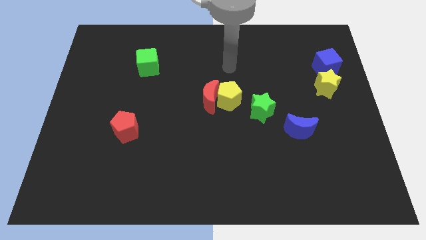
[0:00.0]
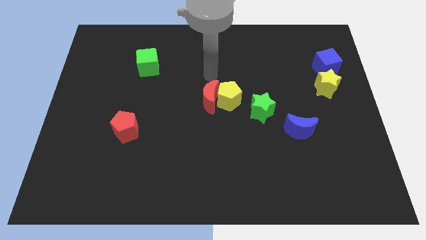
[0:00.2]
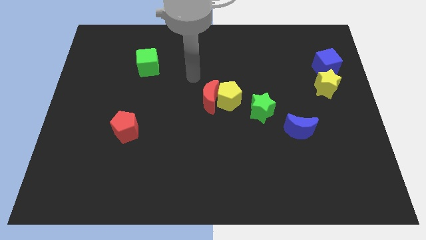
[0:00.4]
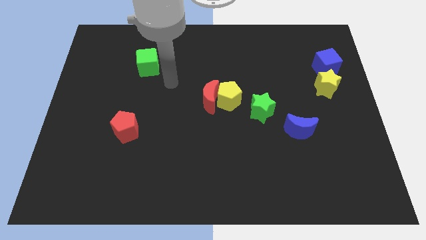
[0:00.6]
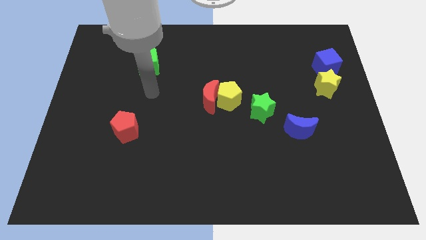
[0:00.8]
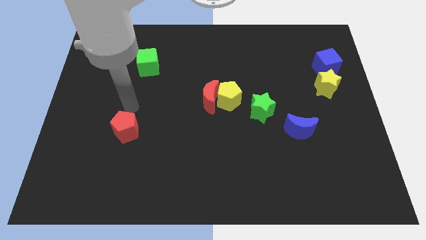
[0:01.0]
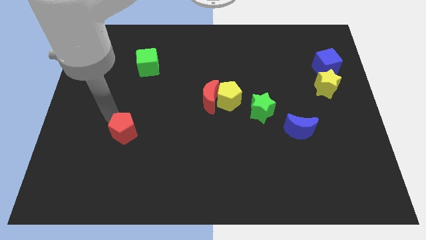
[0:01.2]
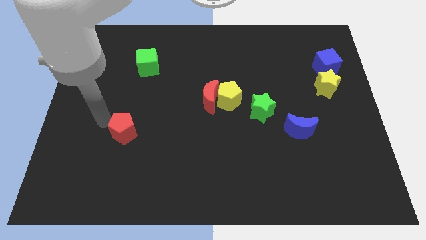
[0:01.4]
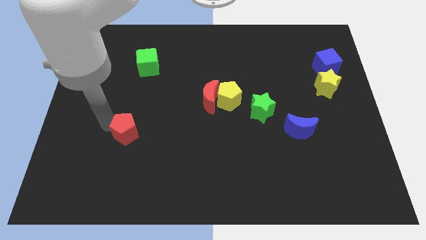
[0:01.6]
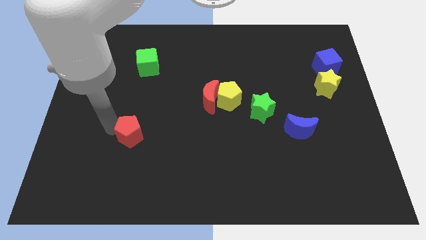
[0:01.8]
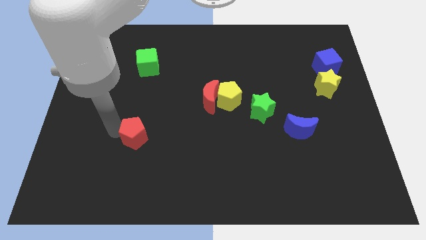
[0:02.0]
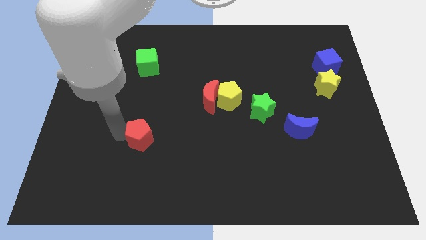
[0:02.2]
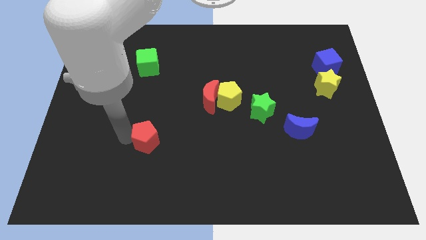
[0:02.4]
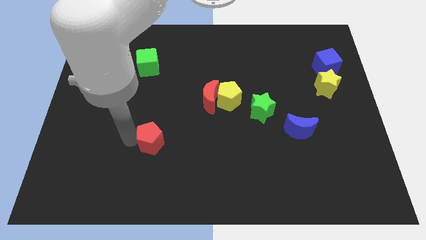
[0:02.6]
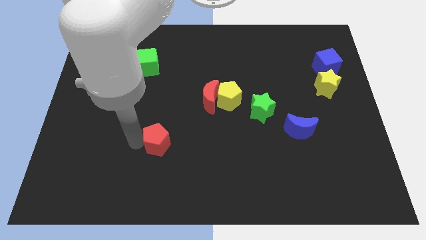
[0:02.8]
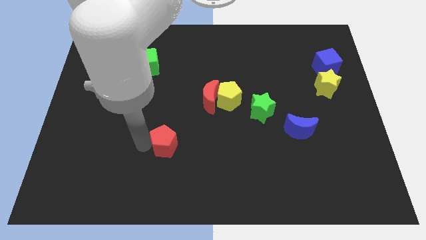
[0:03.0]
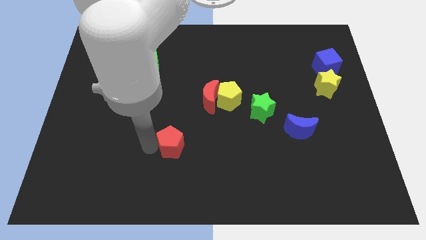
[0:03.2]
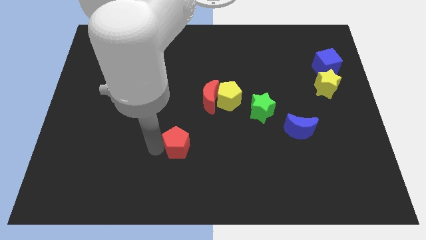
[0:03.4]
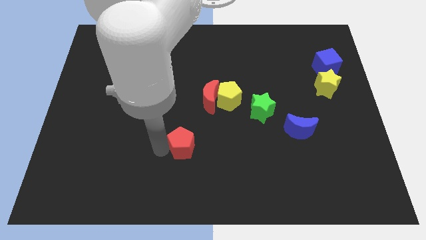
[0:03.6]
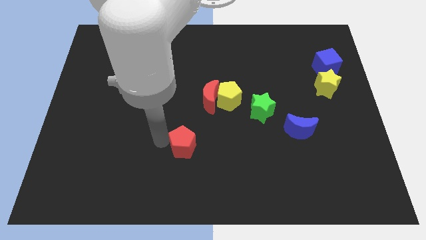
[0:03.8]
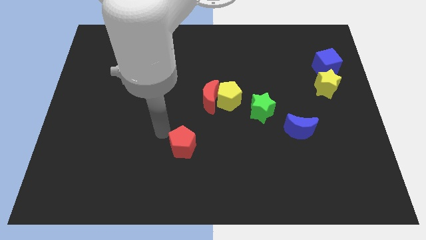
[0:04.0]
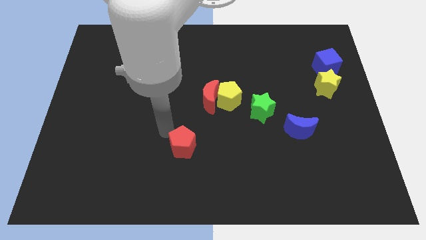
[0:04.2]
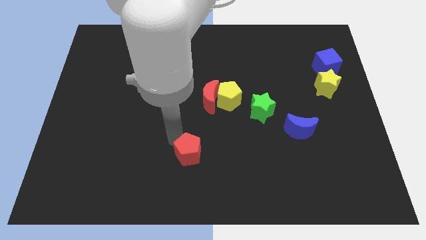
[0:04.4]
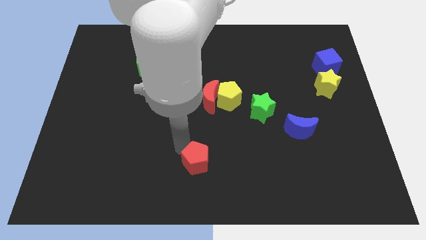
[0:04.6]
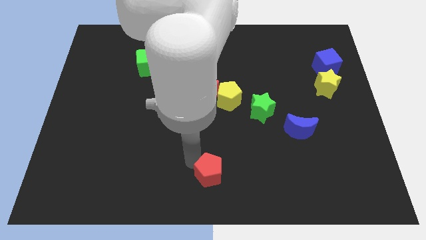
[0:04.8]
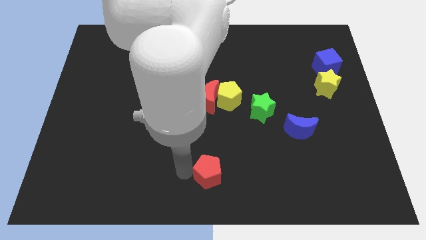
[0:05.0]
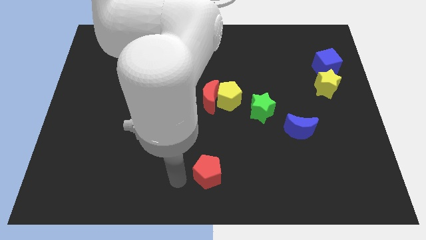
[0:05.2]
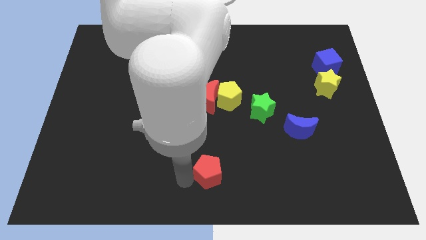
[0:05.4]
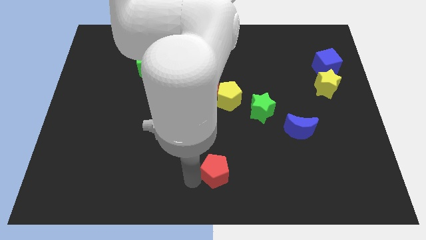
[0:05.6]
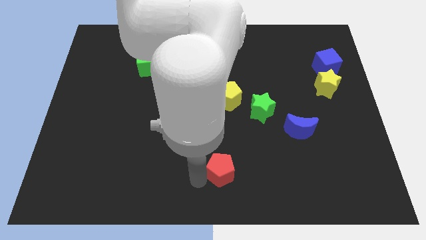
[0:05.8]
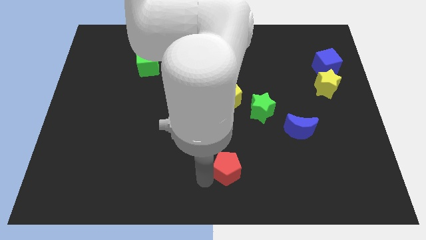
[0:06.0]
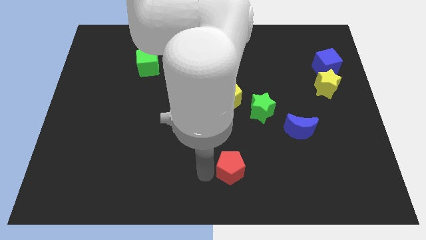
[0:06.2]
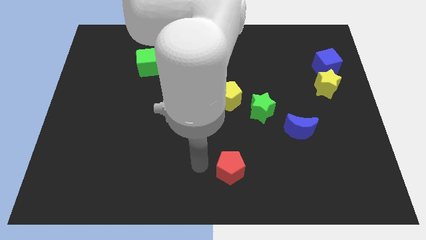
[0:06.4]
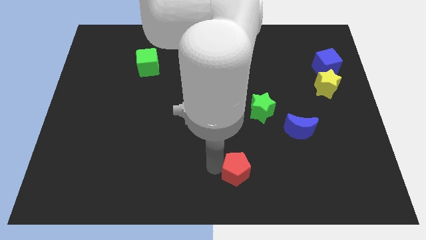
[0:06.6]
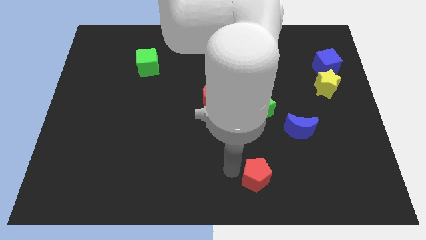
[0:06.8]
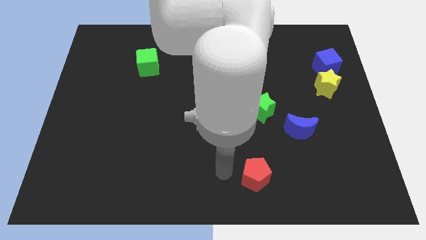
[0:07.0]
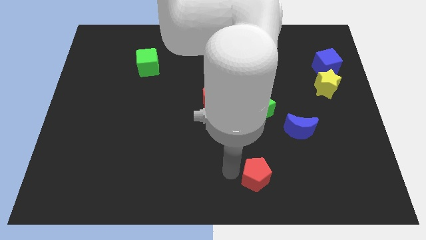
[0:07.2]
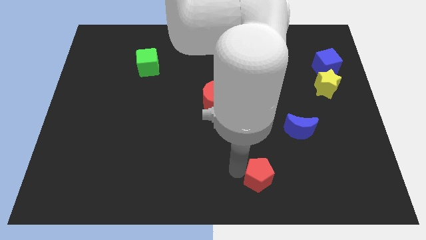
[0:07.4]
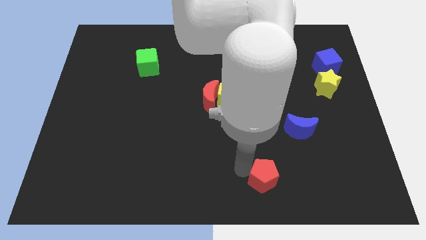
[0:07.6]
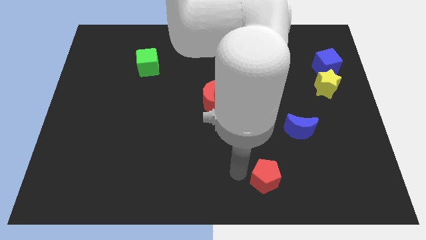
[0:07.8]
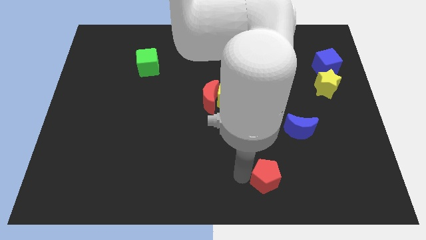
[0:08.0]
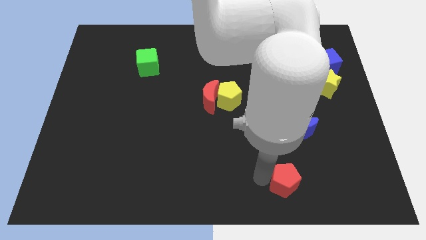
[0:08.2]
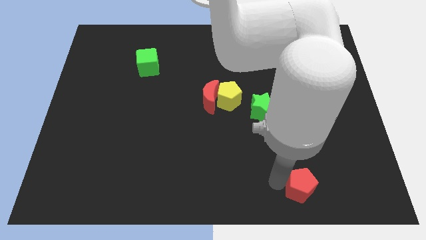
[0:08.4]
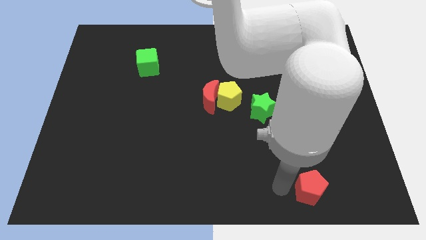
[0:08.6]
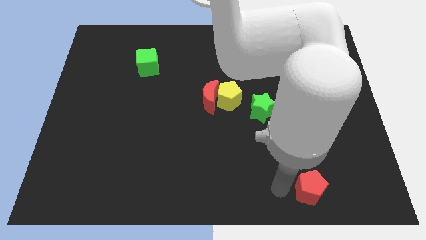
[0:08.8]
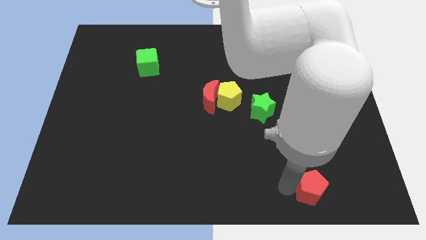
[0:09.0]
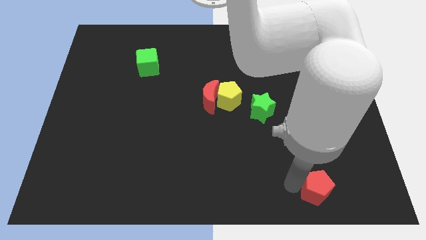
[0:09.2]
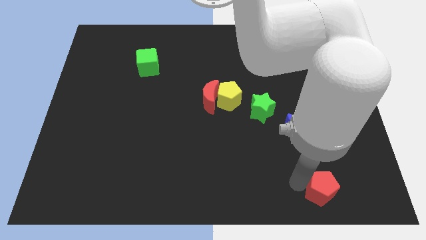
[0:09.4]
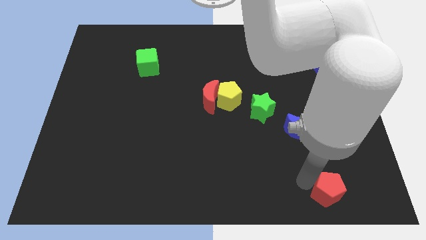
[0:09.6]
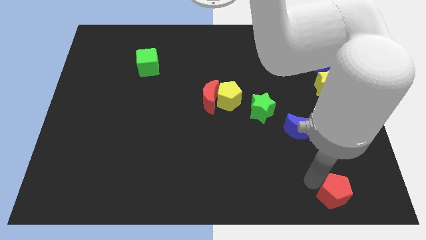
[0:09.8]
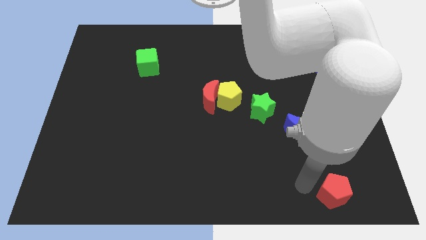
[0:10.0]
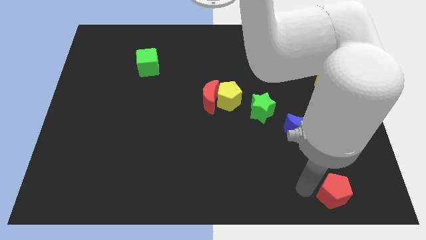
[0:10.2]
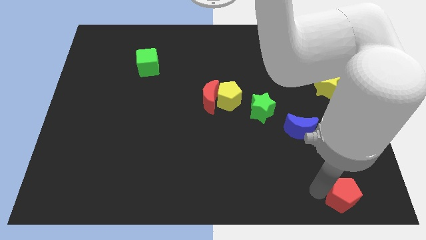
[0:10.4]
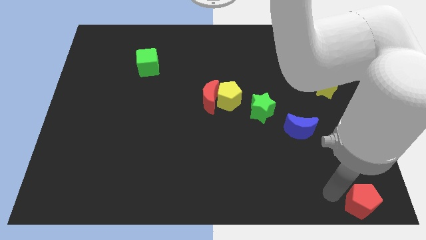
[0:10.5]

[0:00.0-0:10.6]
push the red pentagon to the lower right corner

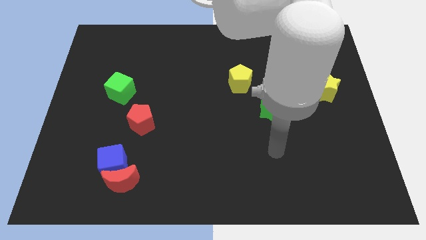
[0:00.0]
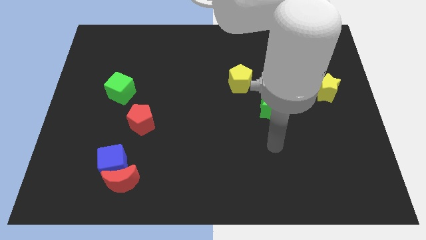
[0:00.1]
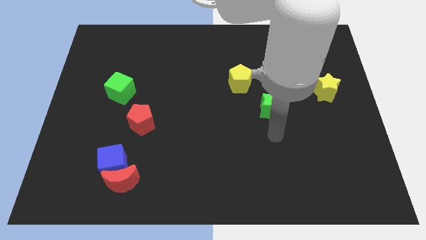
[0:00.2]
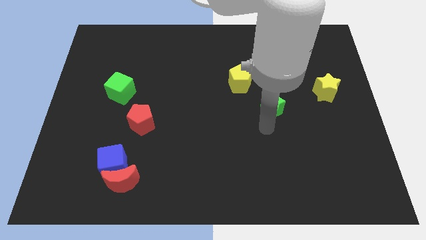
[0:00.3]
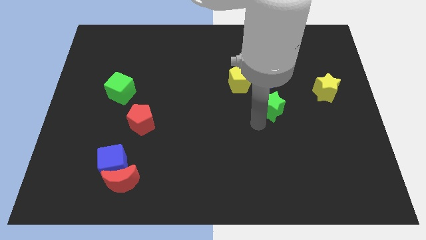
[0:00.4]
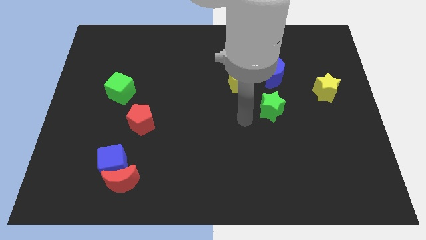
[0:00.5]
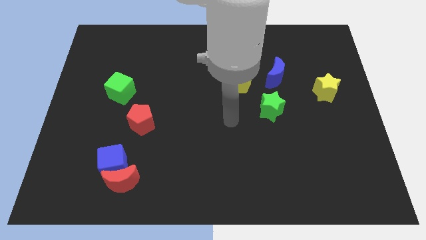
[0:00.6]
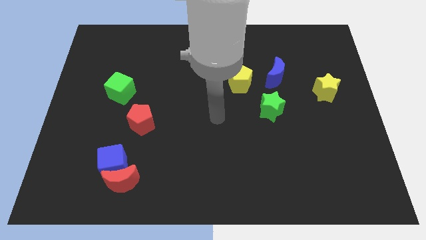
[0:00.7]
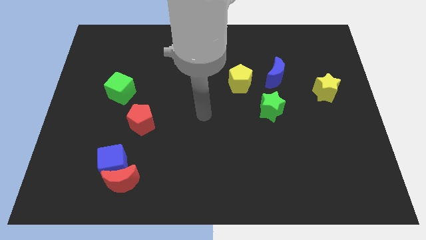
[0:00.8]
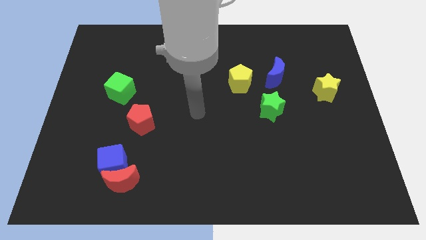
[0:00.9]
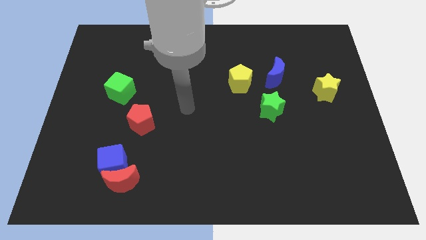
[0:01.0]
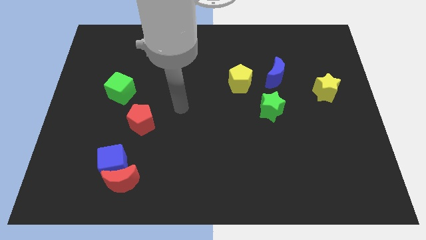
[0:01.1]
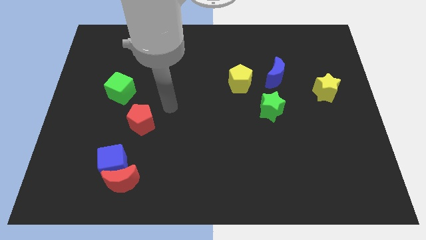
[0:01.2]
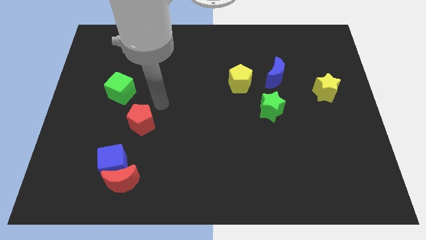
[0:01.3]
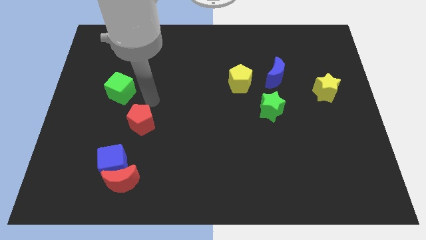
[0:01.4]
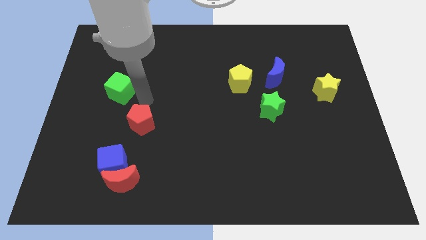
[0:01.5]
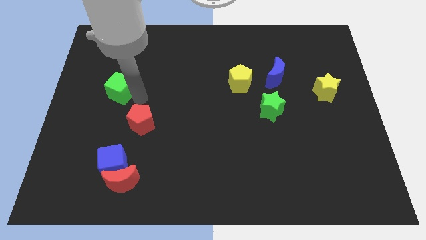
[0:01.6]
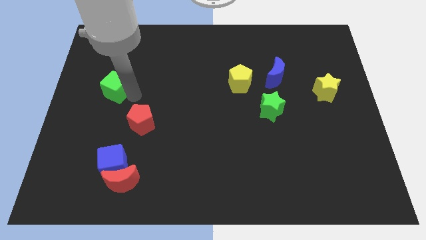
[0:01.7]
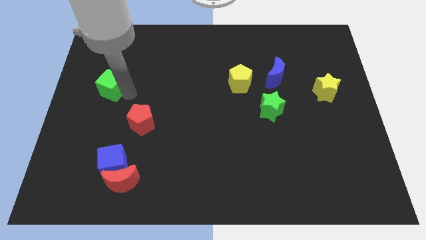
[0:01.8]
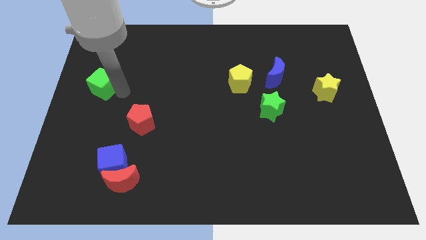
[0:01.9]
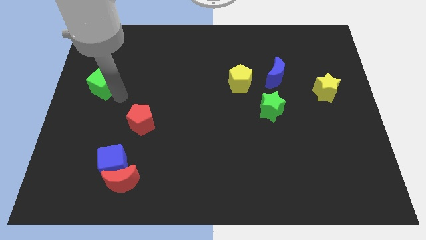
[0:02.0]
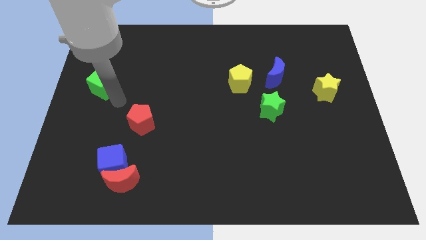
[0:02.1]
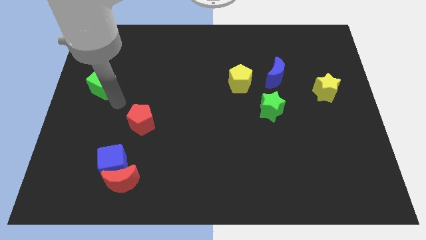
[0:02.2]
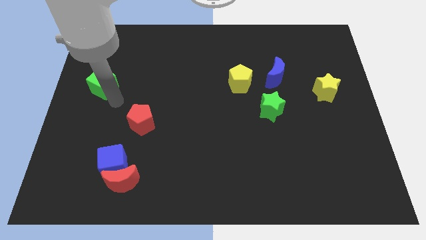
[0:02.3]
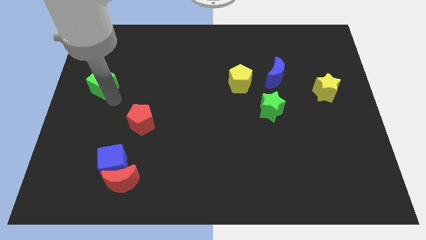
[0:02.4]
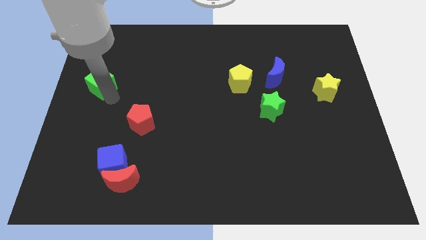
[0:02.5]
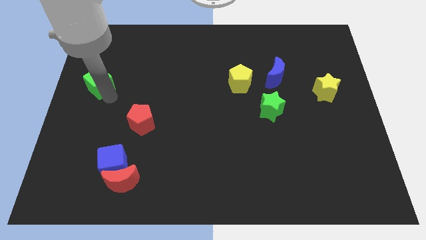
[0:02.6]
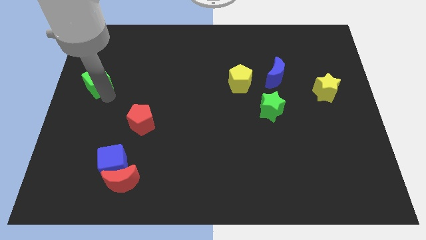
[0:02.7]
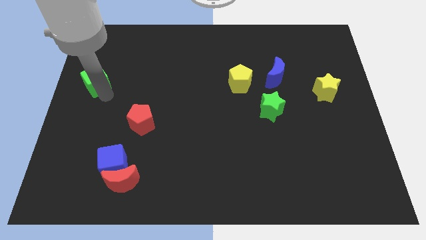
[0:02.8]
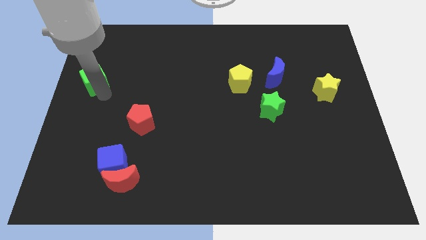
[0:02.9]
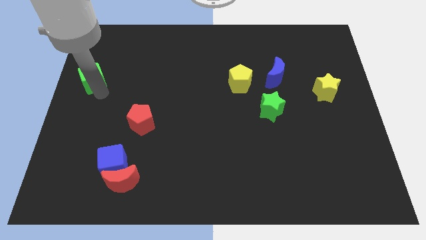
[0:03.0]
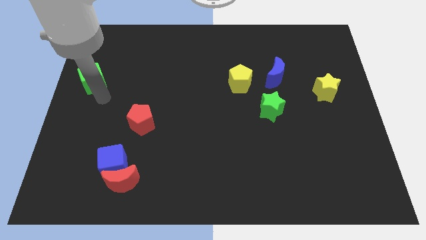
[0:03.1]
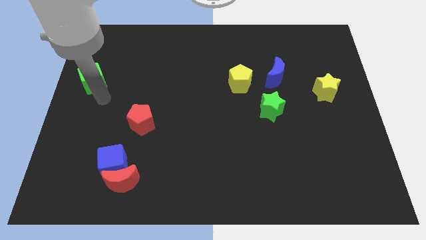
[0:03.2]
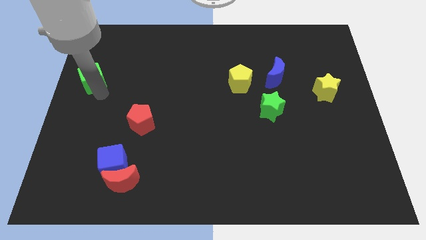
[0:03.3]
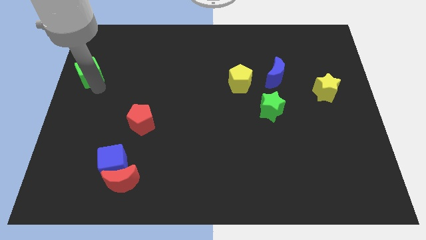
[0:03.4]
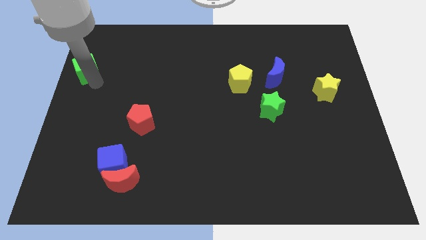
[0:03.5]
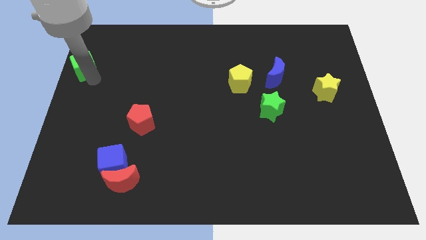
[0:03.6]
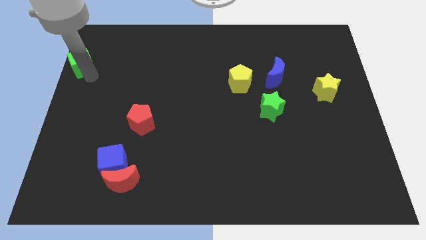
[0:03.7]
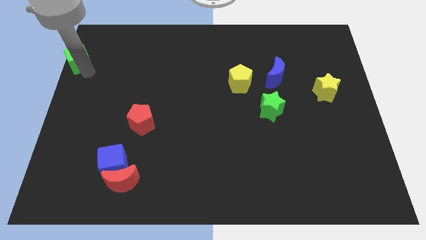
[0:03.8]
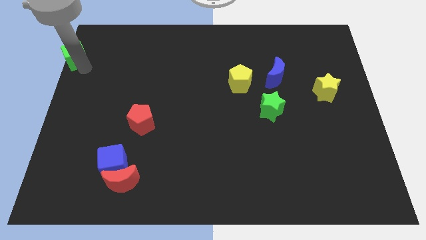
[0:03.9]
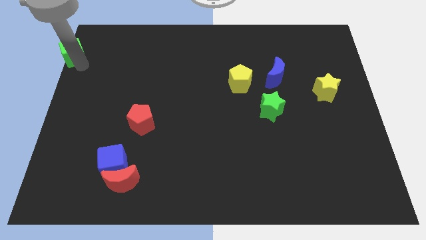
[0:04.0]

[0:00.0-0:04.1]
push the green cube to the top left
